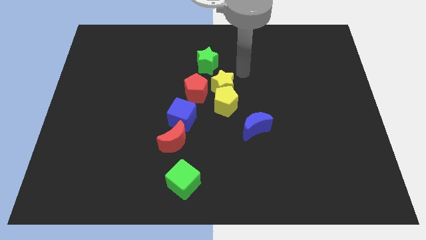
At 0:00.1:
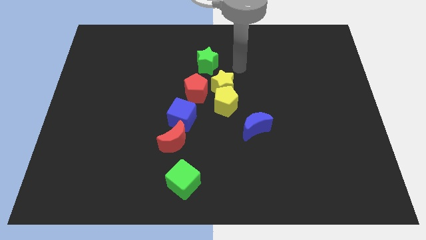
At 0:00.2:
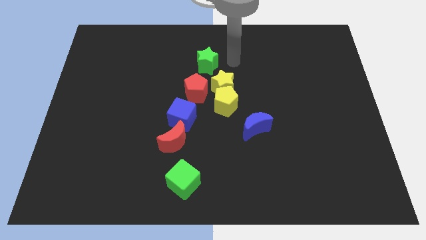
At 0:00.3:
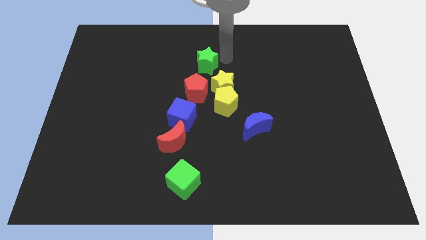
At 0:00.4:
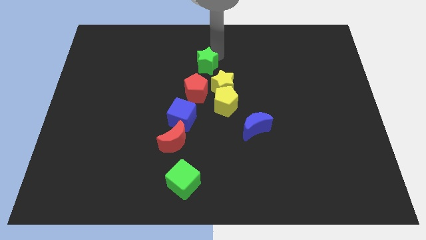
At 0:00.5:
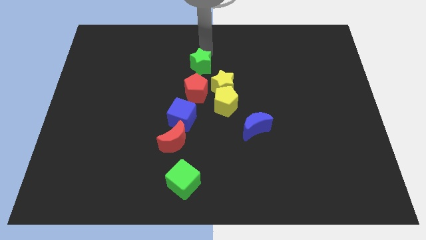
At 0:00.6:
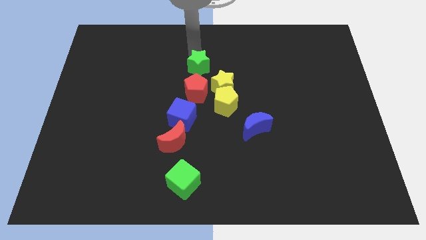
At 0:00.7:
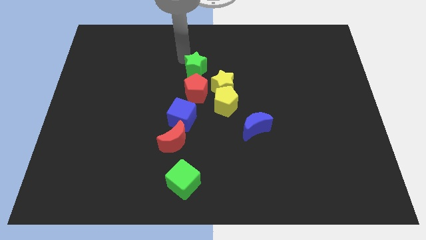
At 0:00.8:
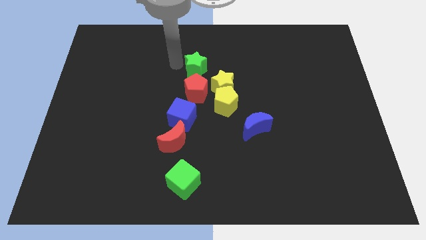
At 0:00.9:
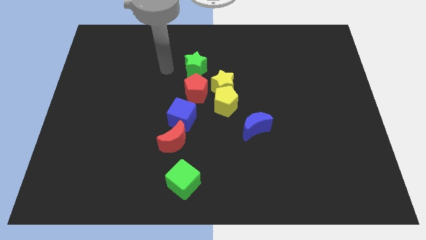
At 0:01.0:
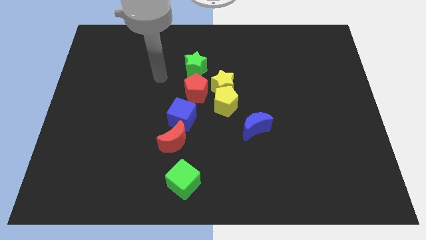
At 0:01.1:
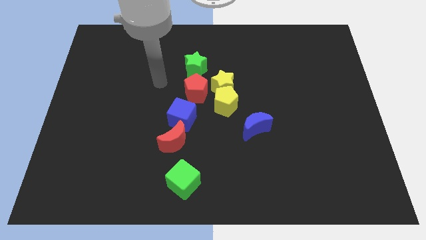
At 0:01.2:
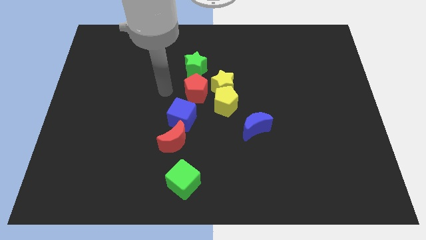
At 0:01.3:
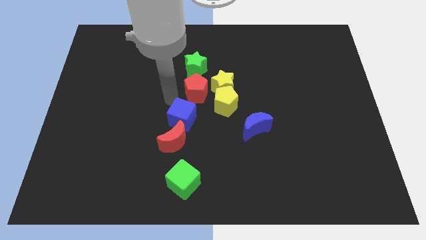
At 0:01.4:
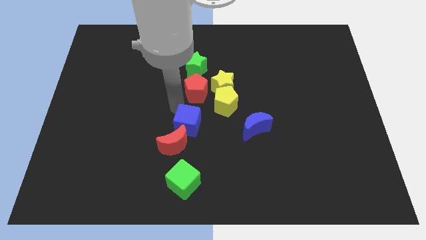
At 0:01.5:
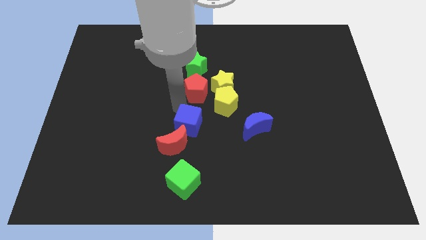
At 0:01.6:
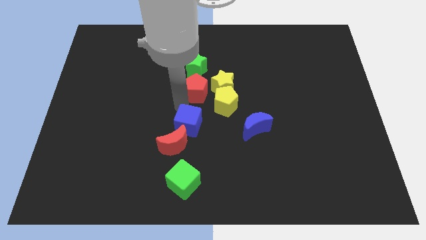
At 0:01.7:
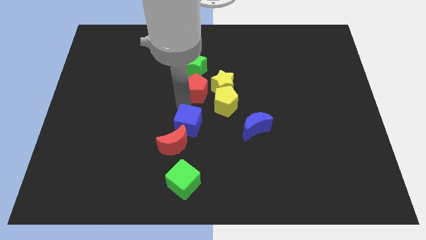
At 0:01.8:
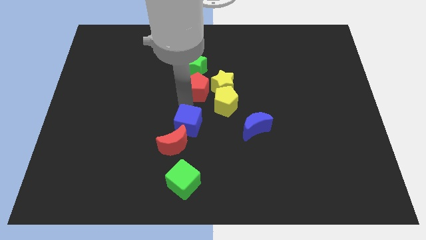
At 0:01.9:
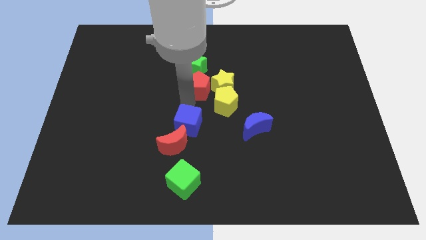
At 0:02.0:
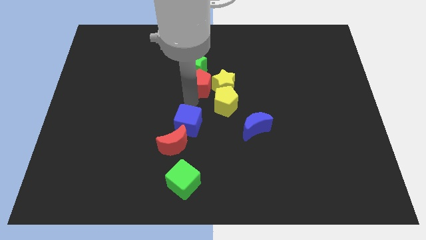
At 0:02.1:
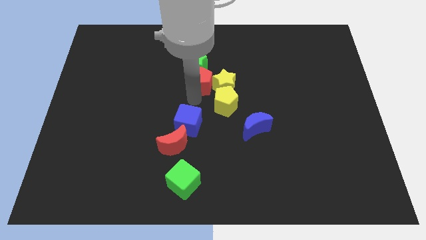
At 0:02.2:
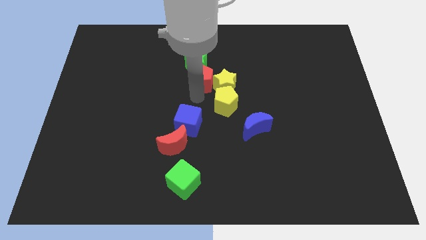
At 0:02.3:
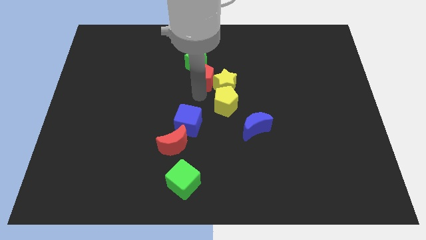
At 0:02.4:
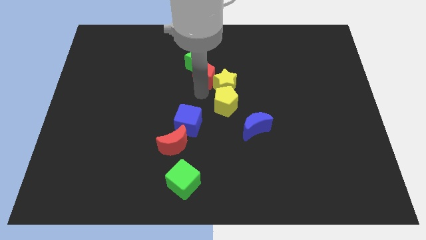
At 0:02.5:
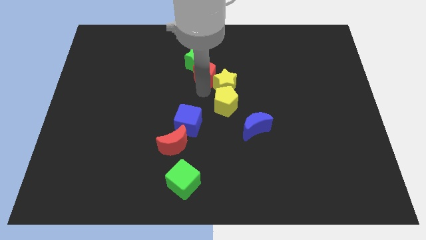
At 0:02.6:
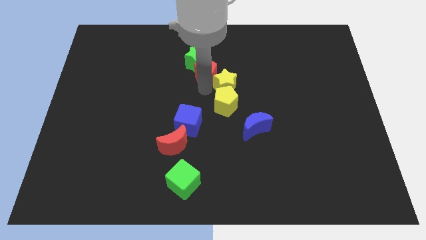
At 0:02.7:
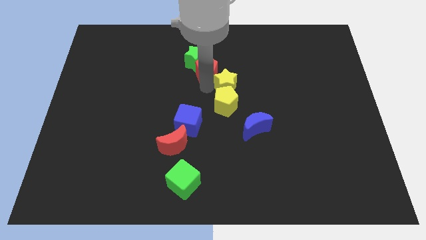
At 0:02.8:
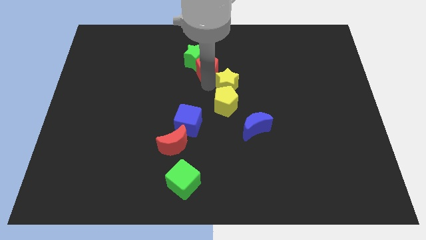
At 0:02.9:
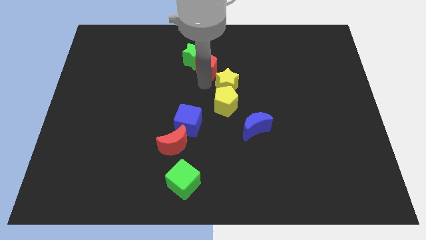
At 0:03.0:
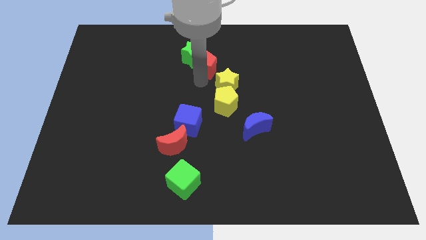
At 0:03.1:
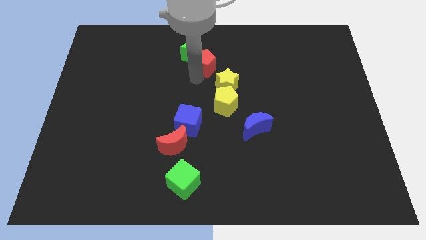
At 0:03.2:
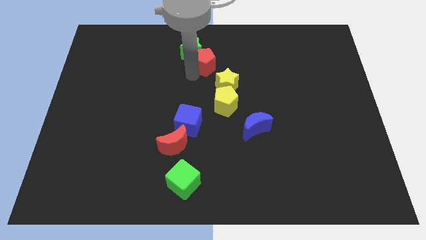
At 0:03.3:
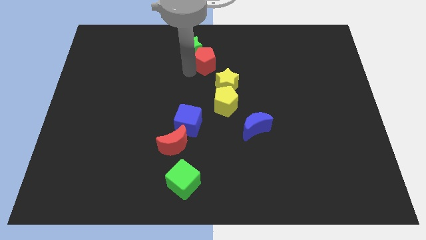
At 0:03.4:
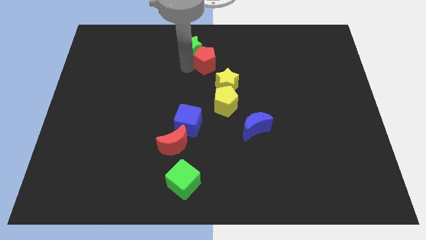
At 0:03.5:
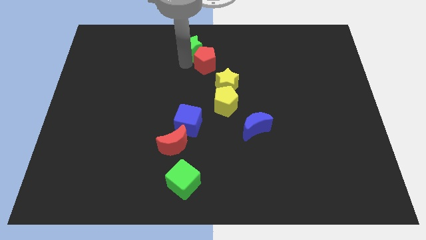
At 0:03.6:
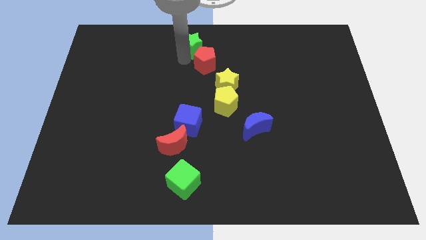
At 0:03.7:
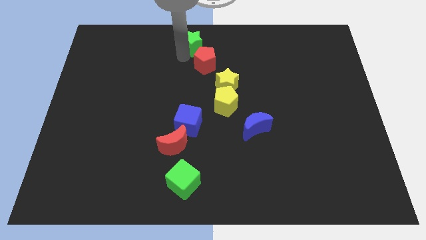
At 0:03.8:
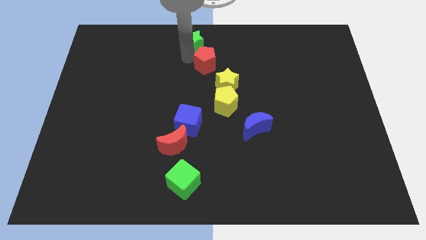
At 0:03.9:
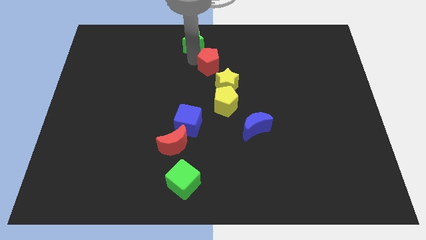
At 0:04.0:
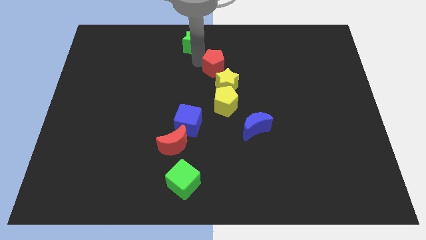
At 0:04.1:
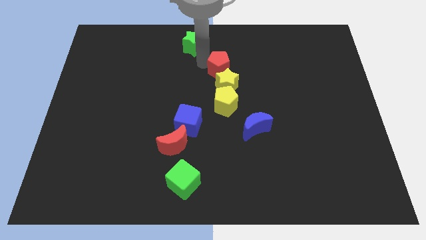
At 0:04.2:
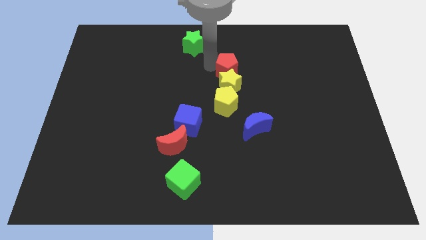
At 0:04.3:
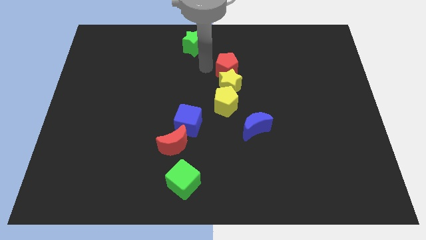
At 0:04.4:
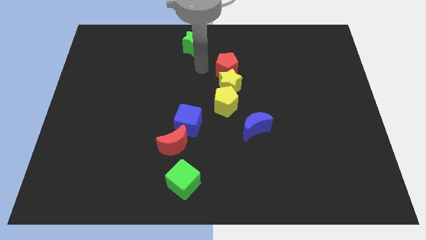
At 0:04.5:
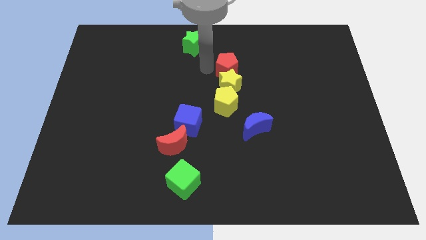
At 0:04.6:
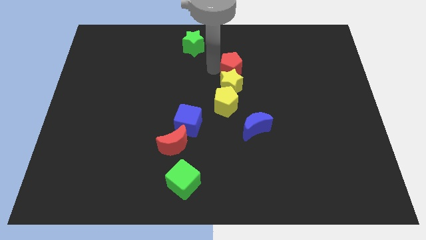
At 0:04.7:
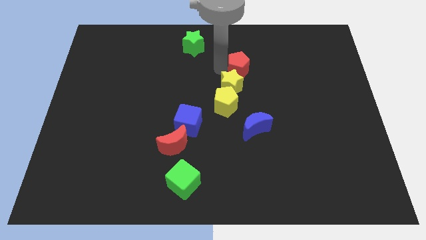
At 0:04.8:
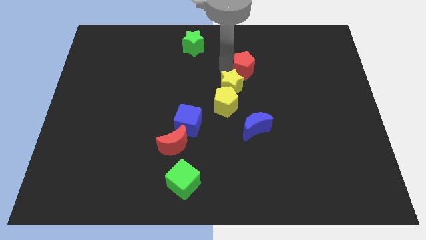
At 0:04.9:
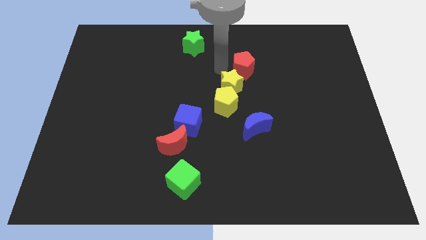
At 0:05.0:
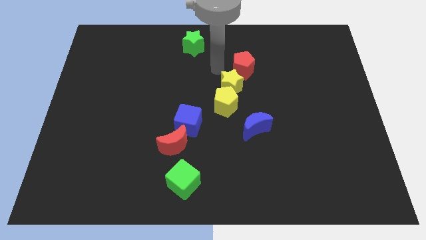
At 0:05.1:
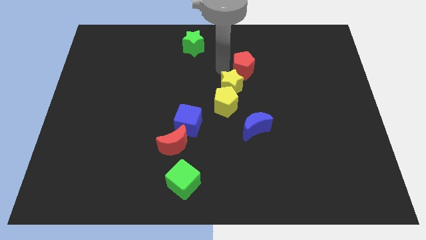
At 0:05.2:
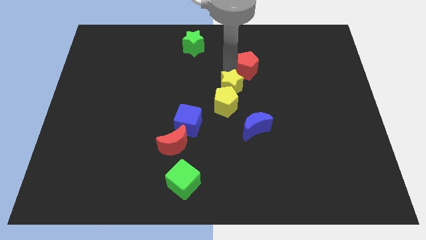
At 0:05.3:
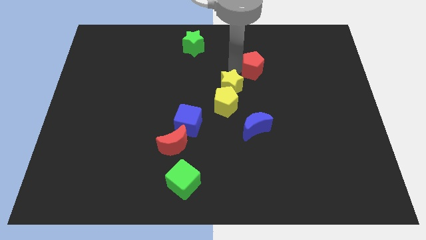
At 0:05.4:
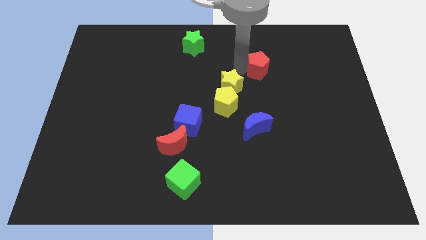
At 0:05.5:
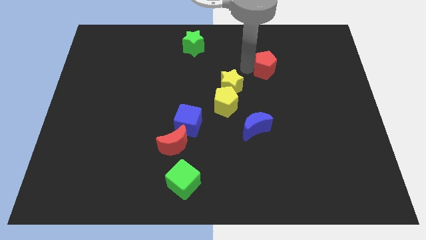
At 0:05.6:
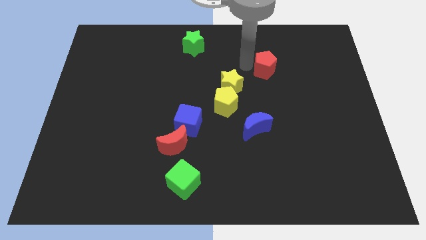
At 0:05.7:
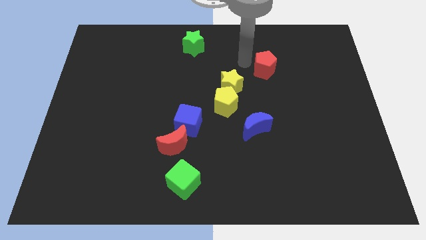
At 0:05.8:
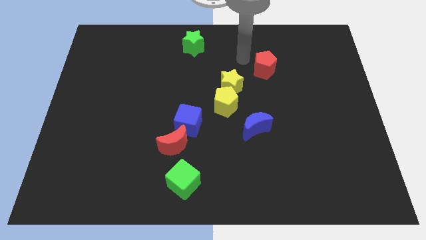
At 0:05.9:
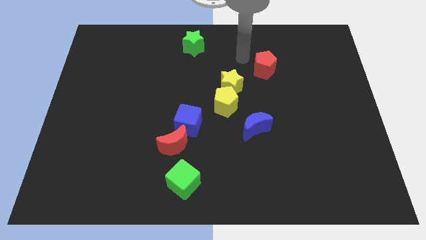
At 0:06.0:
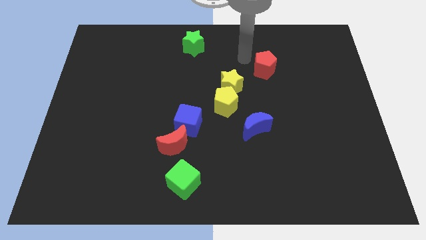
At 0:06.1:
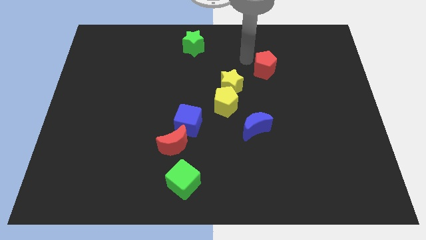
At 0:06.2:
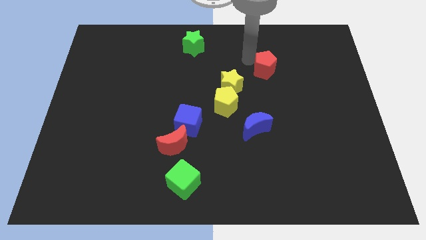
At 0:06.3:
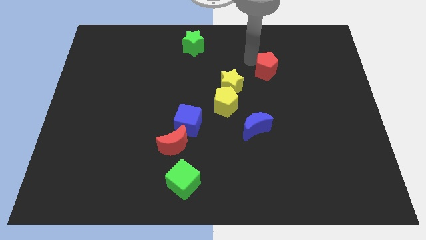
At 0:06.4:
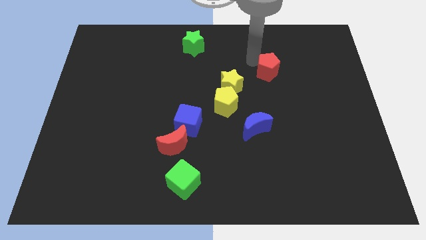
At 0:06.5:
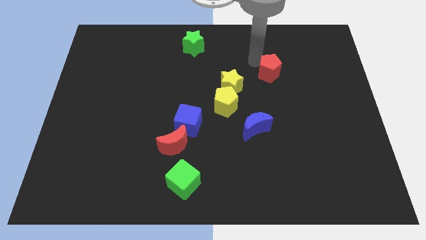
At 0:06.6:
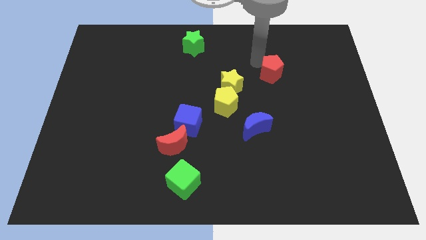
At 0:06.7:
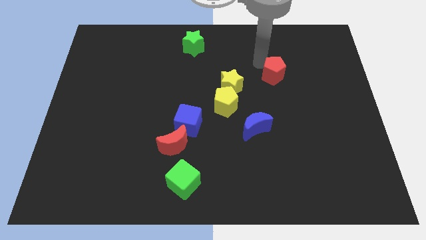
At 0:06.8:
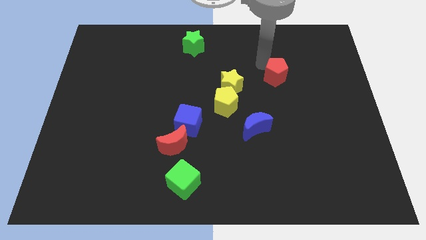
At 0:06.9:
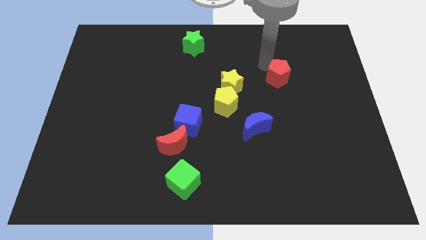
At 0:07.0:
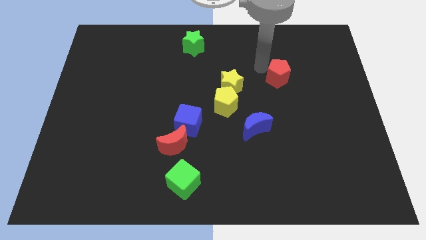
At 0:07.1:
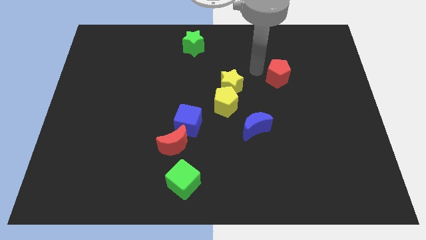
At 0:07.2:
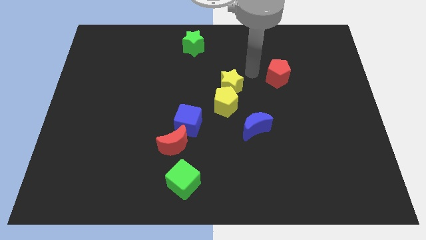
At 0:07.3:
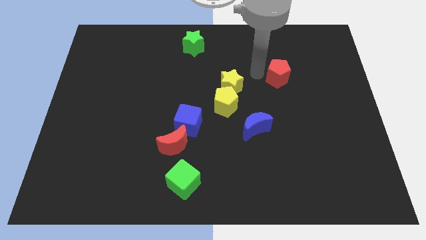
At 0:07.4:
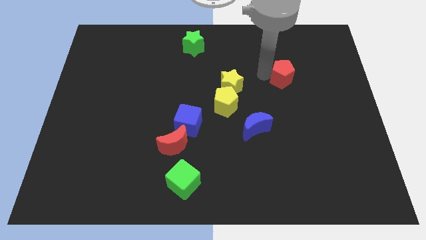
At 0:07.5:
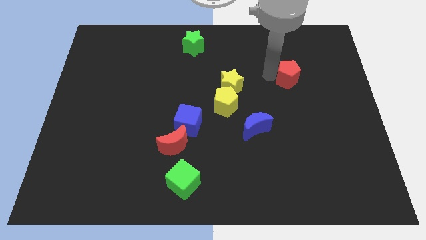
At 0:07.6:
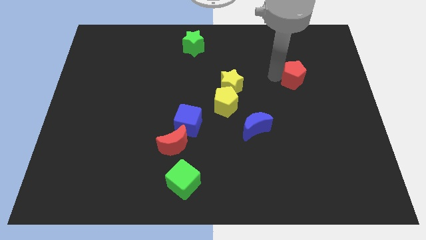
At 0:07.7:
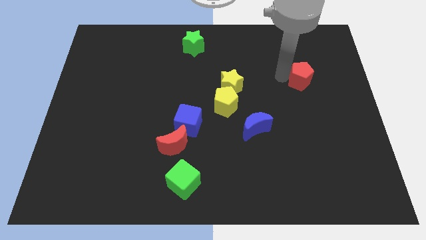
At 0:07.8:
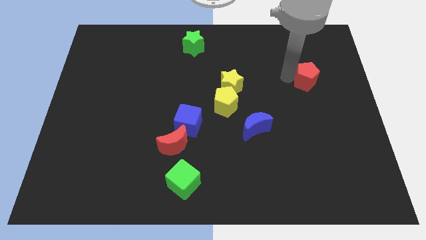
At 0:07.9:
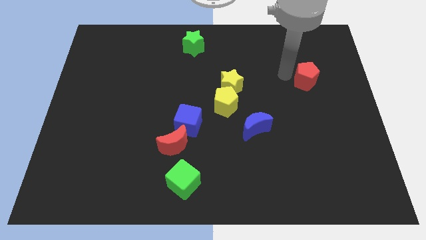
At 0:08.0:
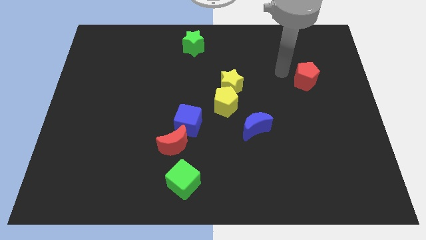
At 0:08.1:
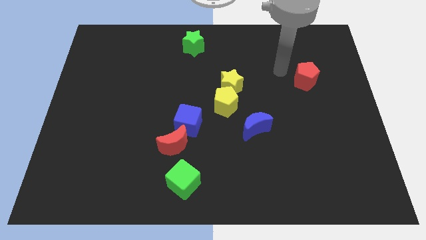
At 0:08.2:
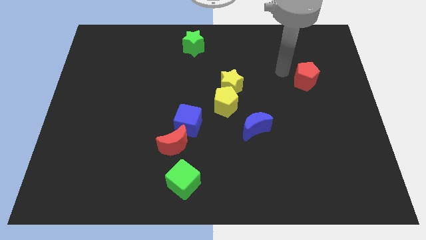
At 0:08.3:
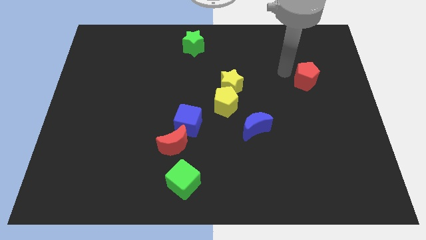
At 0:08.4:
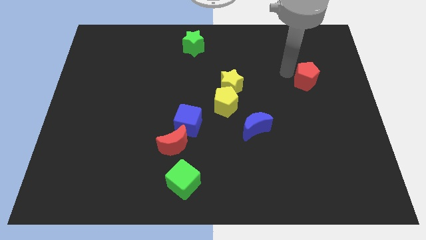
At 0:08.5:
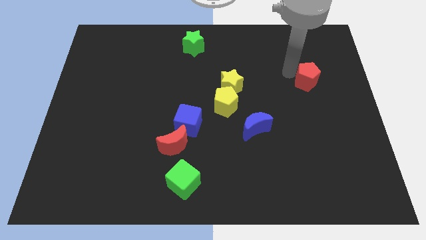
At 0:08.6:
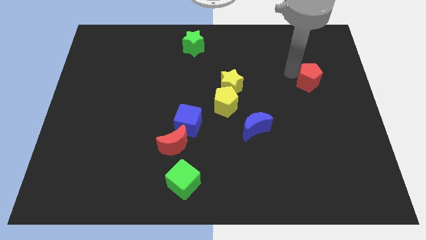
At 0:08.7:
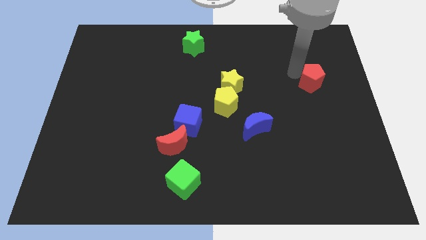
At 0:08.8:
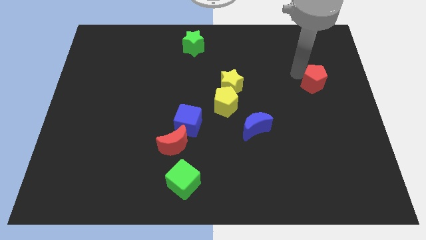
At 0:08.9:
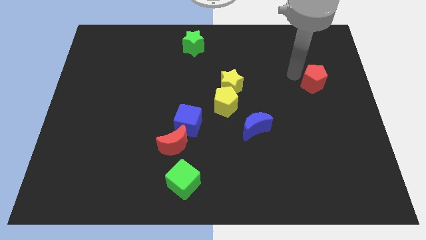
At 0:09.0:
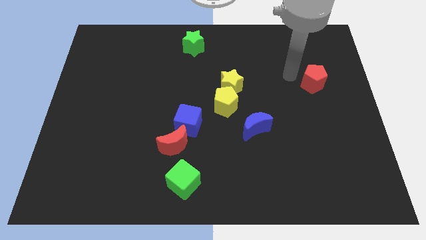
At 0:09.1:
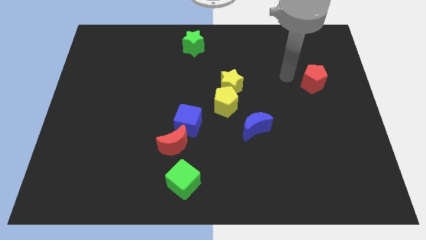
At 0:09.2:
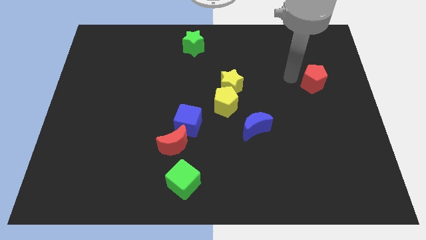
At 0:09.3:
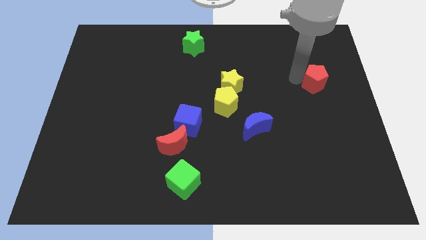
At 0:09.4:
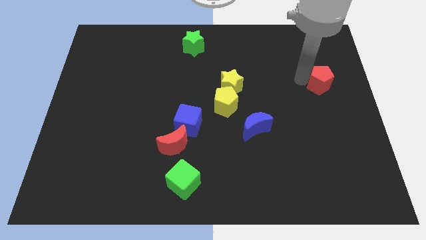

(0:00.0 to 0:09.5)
slide the red pentagon to the right side of the board
